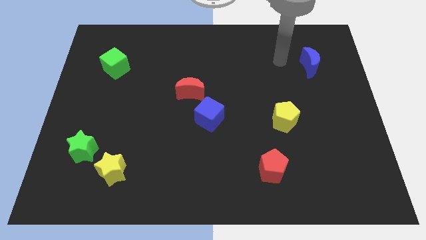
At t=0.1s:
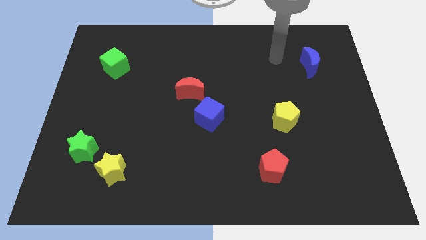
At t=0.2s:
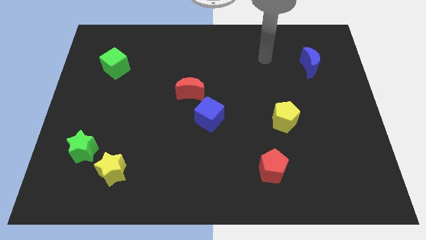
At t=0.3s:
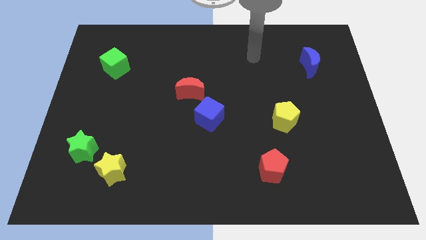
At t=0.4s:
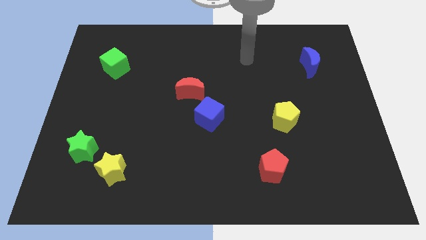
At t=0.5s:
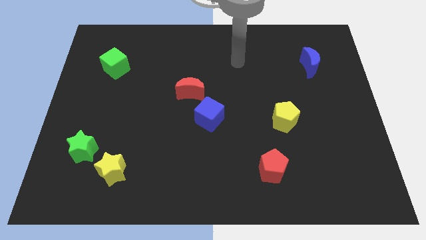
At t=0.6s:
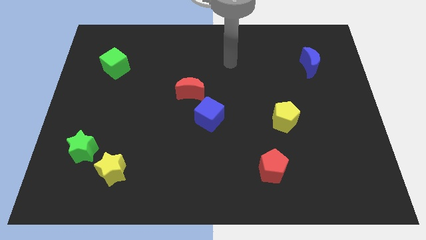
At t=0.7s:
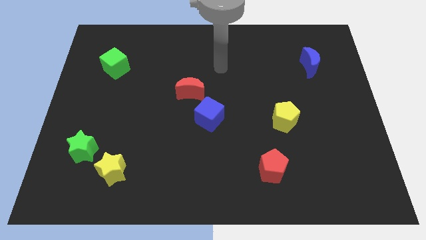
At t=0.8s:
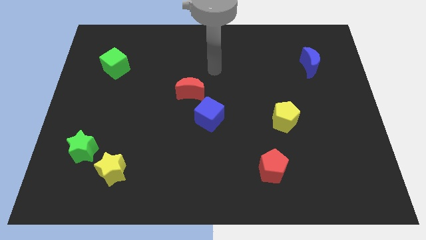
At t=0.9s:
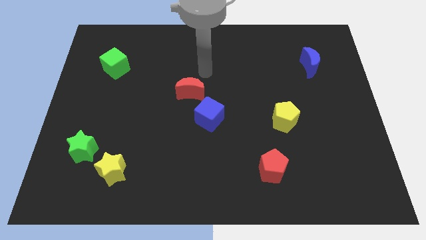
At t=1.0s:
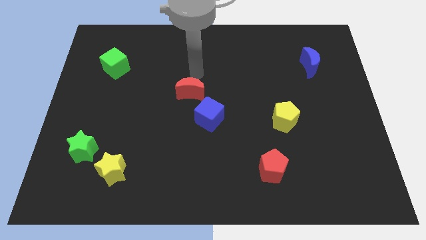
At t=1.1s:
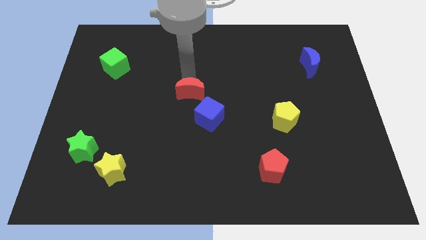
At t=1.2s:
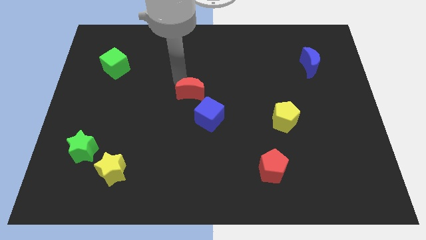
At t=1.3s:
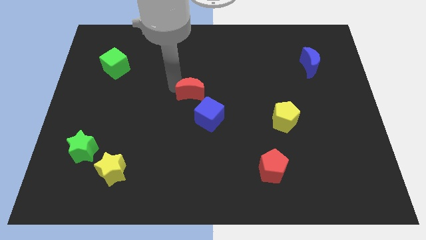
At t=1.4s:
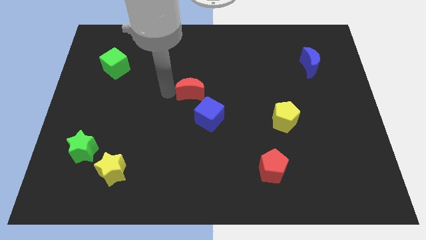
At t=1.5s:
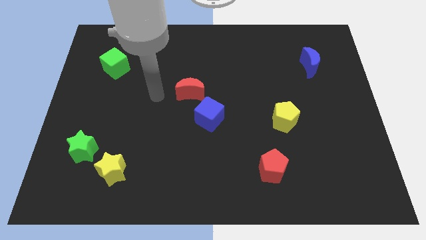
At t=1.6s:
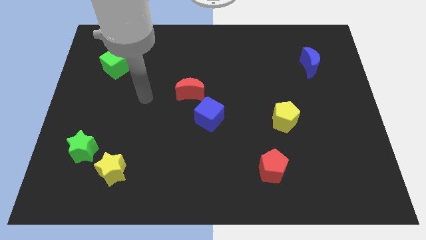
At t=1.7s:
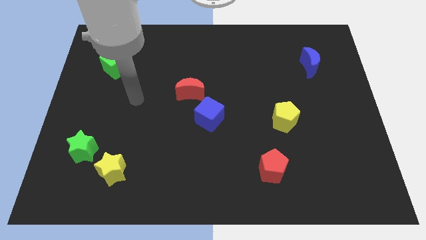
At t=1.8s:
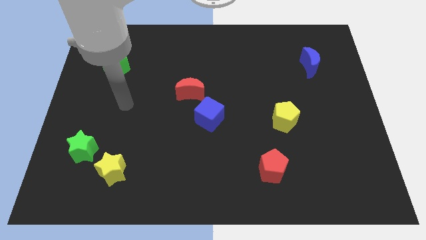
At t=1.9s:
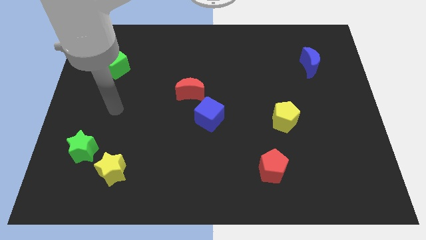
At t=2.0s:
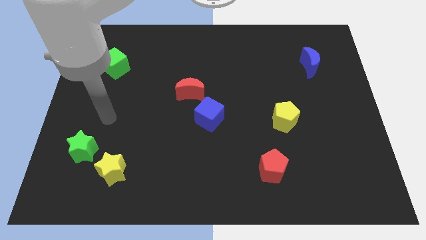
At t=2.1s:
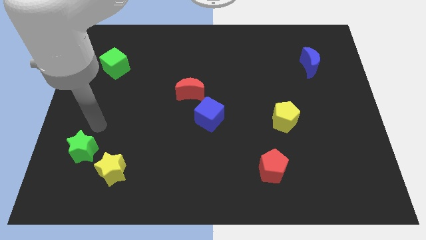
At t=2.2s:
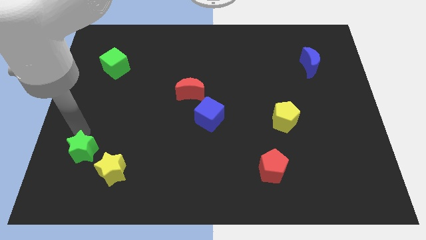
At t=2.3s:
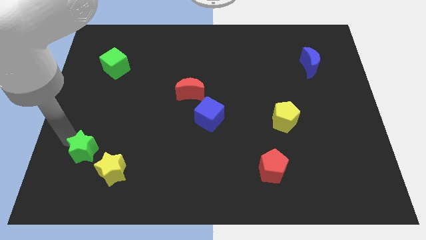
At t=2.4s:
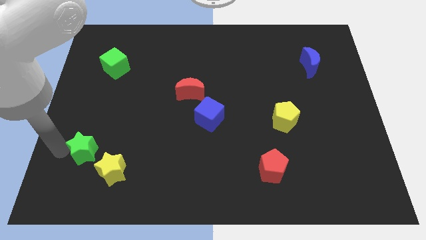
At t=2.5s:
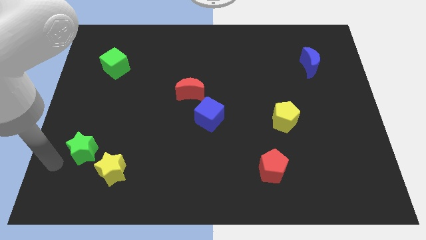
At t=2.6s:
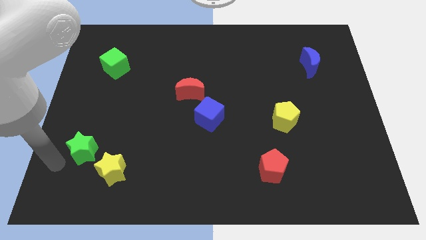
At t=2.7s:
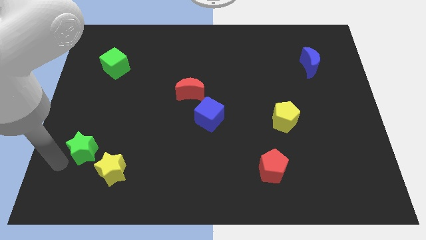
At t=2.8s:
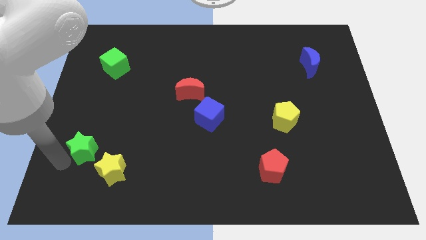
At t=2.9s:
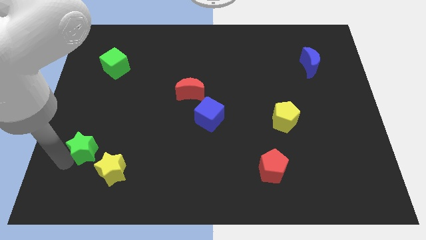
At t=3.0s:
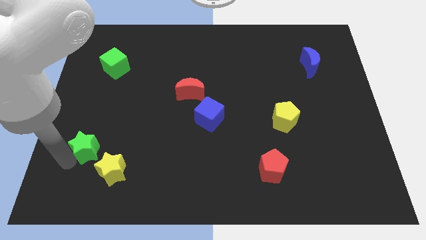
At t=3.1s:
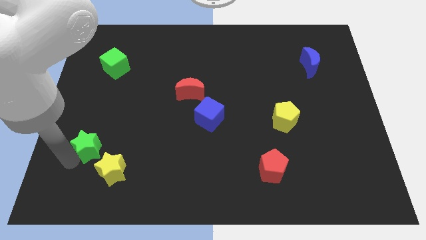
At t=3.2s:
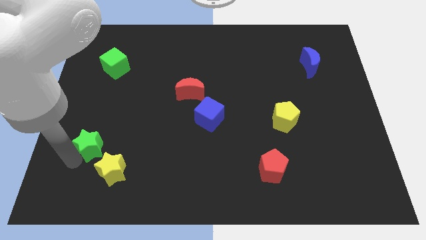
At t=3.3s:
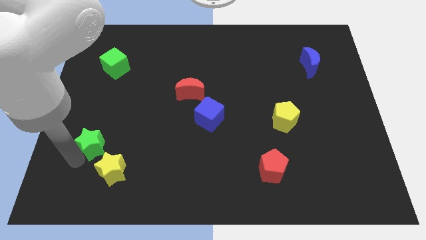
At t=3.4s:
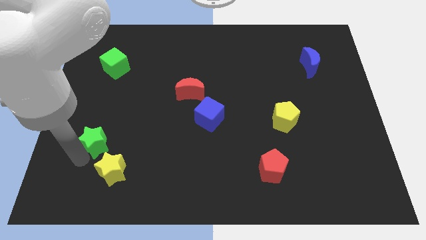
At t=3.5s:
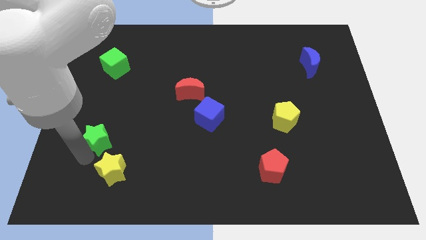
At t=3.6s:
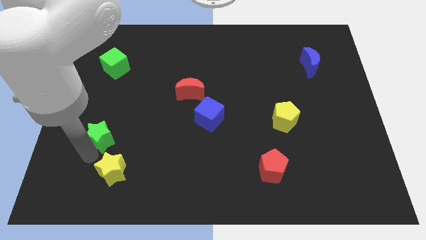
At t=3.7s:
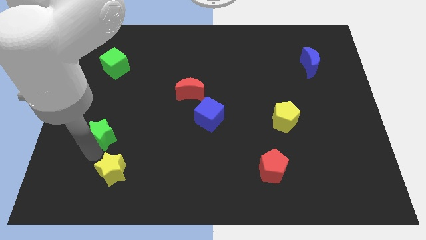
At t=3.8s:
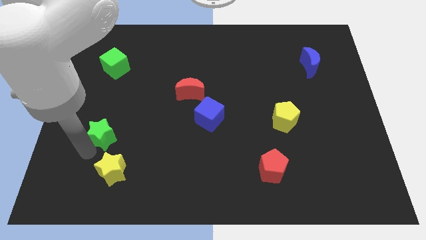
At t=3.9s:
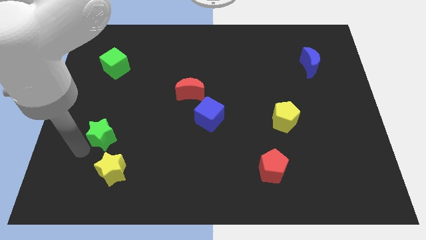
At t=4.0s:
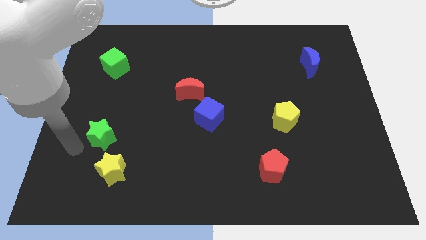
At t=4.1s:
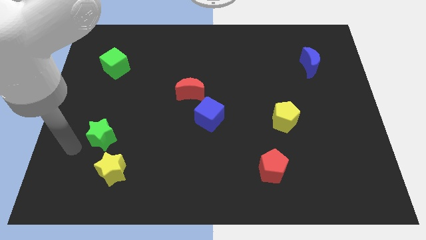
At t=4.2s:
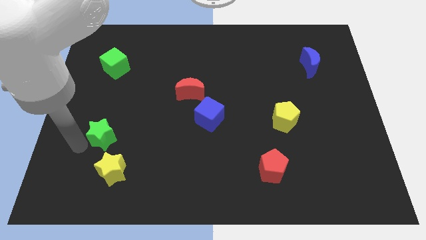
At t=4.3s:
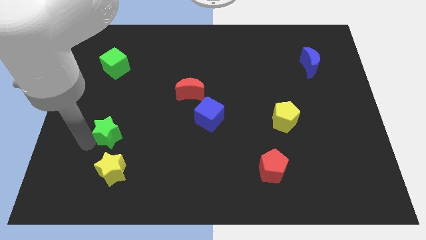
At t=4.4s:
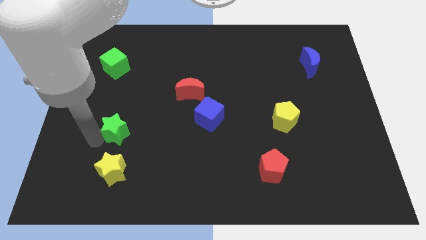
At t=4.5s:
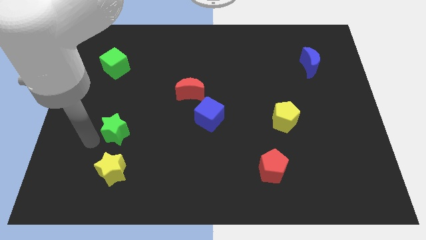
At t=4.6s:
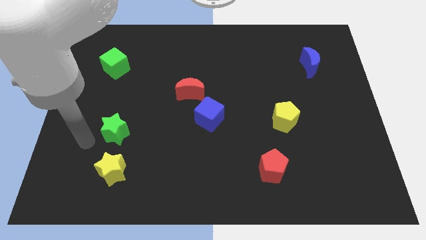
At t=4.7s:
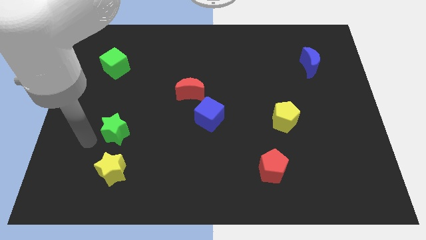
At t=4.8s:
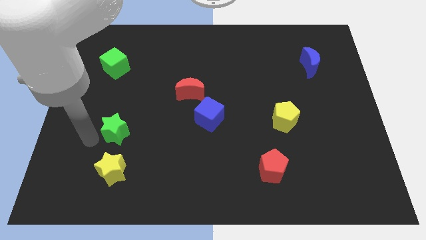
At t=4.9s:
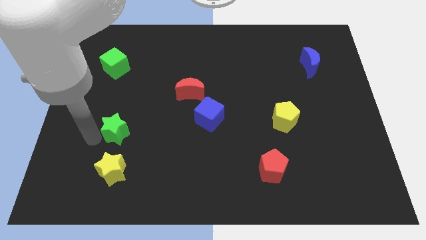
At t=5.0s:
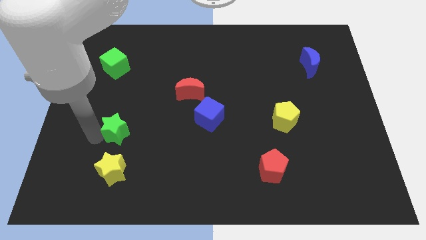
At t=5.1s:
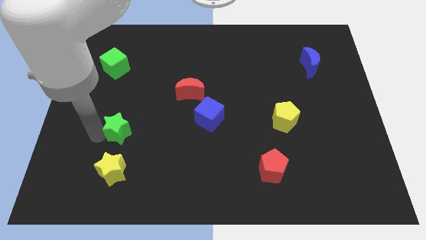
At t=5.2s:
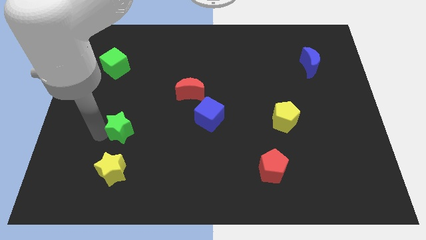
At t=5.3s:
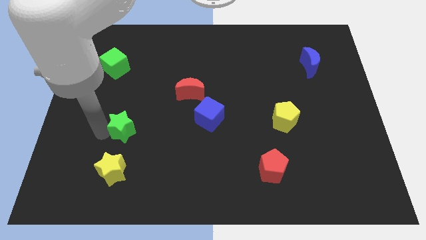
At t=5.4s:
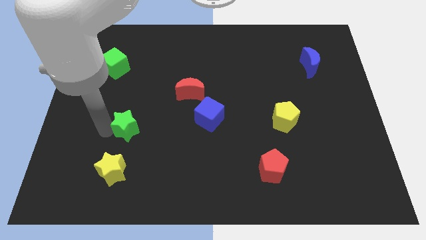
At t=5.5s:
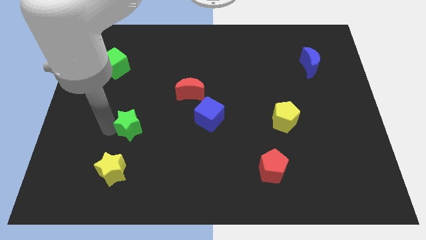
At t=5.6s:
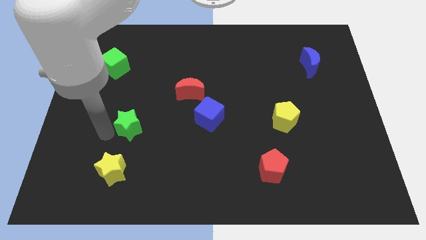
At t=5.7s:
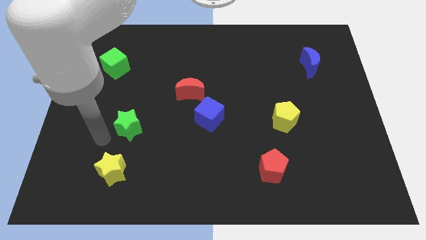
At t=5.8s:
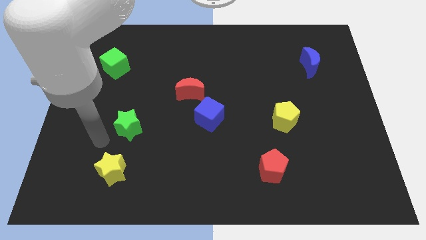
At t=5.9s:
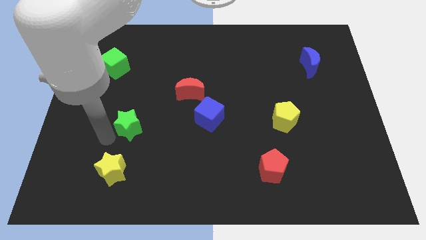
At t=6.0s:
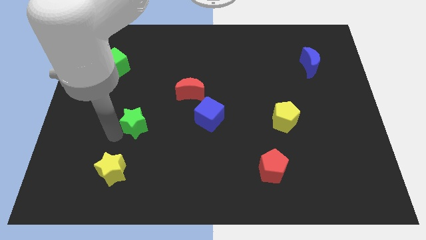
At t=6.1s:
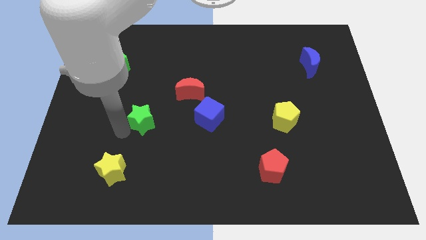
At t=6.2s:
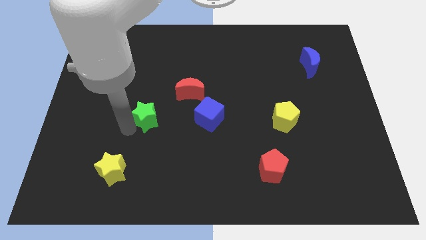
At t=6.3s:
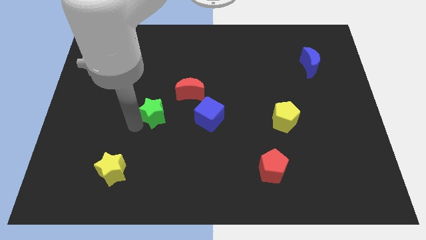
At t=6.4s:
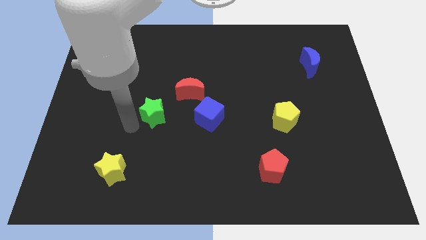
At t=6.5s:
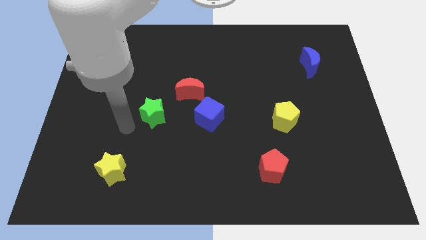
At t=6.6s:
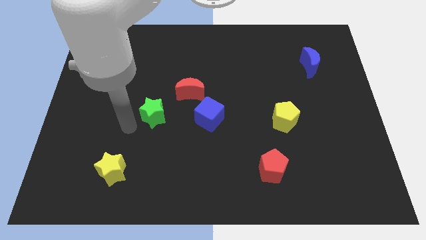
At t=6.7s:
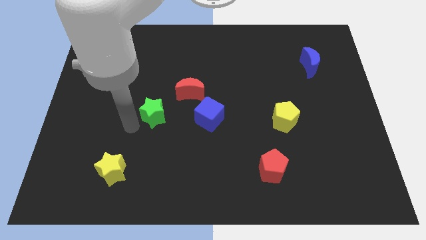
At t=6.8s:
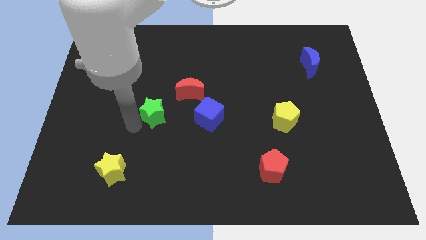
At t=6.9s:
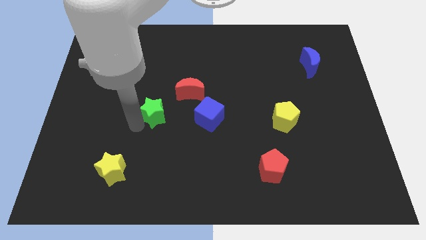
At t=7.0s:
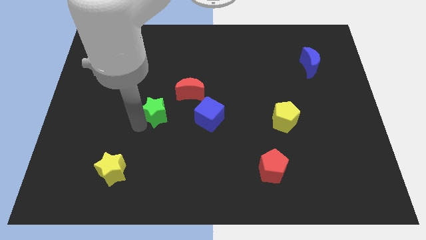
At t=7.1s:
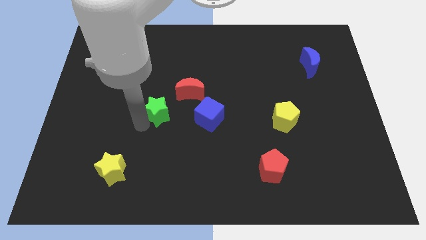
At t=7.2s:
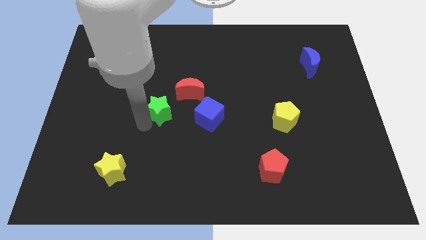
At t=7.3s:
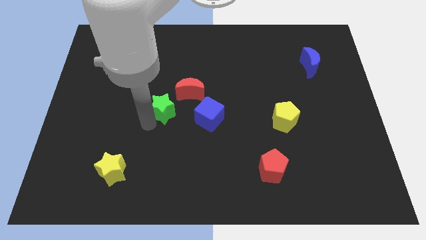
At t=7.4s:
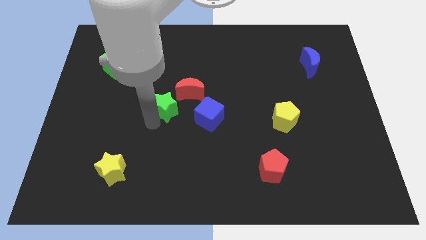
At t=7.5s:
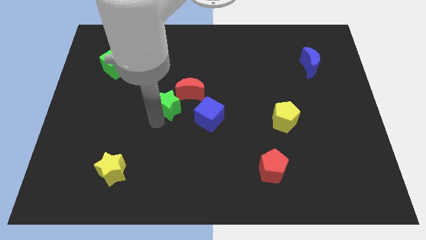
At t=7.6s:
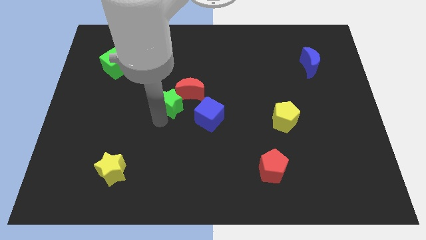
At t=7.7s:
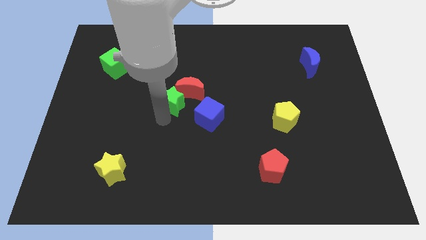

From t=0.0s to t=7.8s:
push the green star next to the red moon
